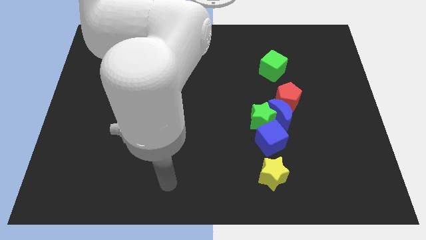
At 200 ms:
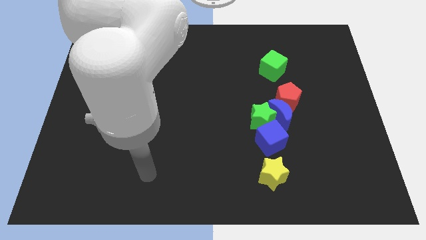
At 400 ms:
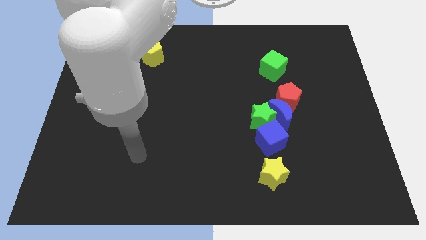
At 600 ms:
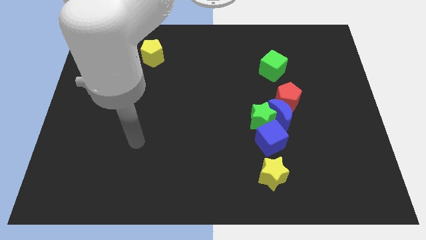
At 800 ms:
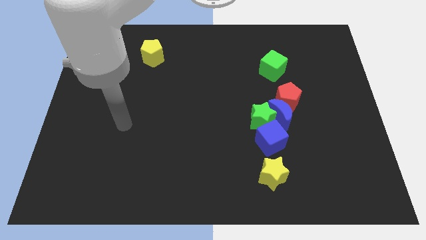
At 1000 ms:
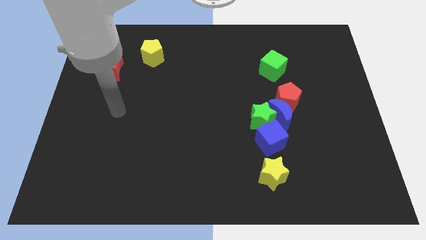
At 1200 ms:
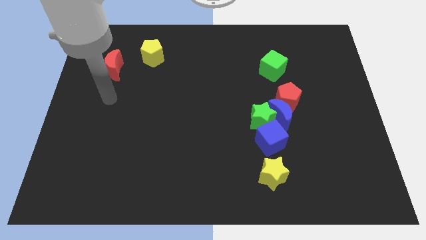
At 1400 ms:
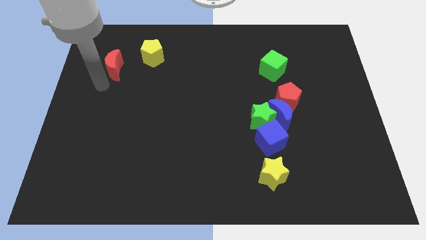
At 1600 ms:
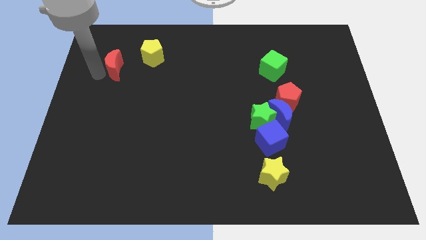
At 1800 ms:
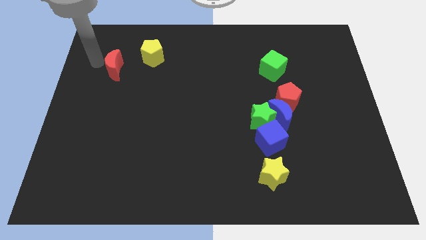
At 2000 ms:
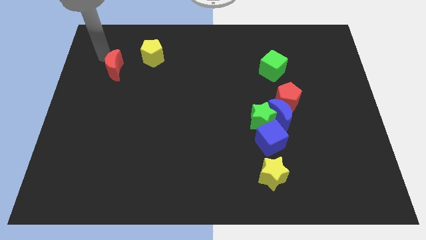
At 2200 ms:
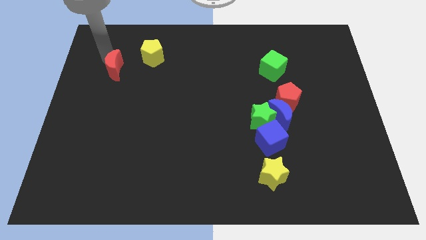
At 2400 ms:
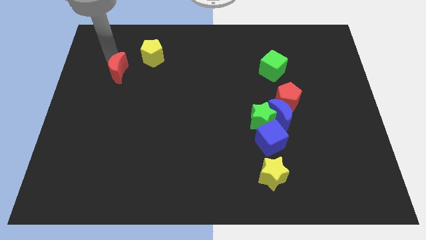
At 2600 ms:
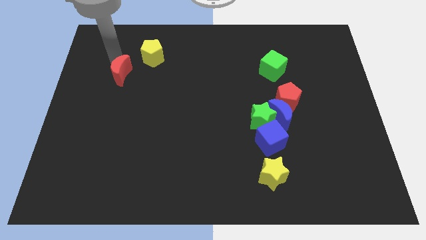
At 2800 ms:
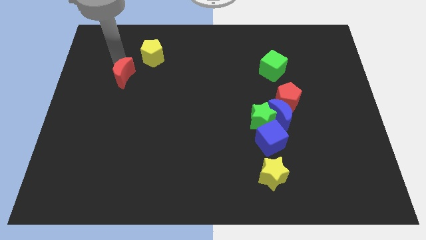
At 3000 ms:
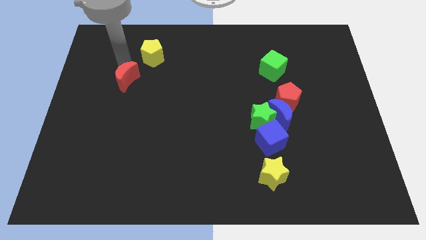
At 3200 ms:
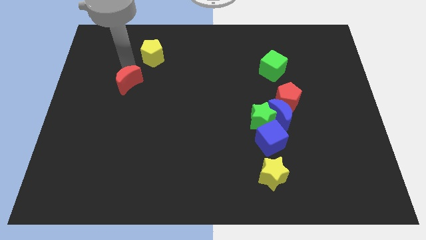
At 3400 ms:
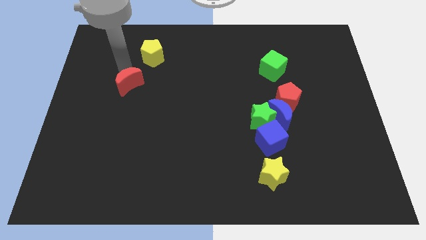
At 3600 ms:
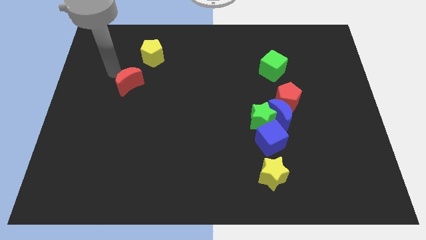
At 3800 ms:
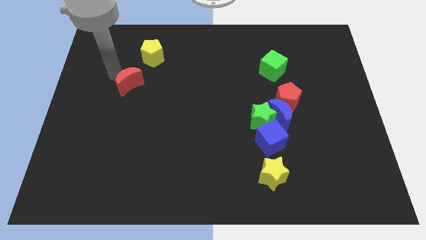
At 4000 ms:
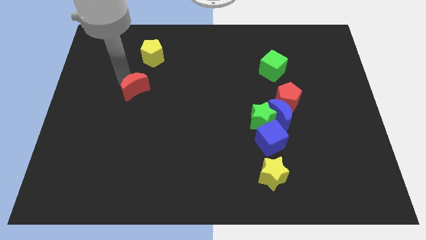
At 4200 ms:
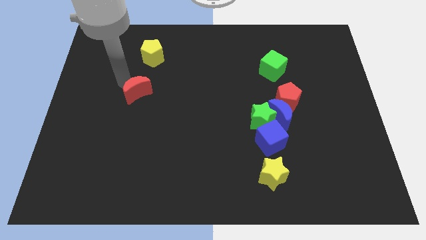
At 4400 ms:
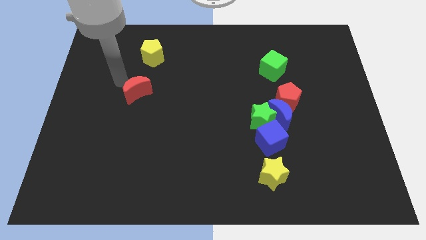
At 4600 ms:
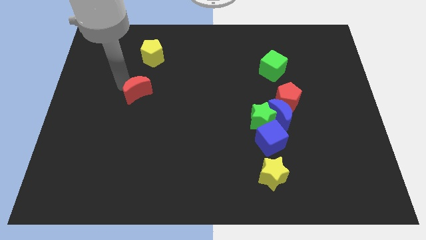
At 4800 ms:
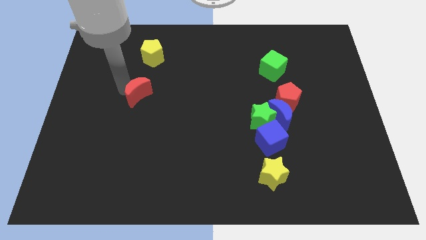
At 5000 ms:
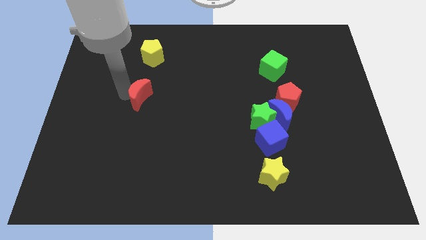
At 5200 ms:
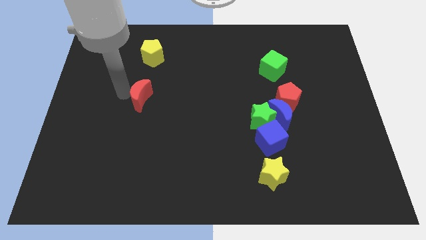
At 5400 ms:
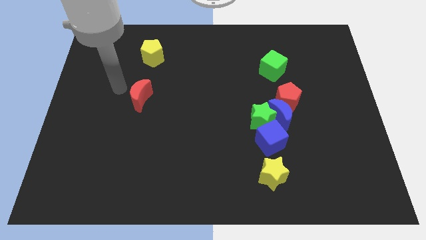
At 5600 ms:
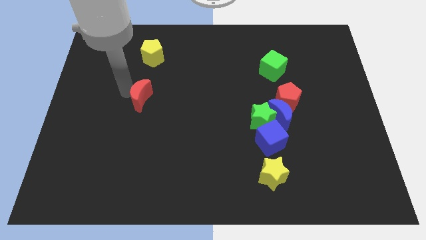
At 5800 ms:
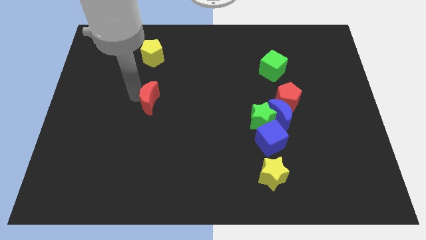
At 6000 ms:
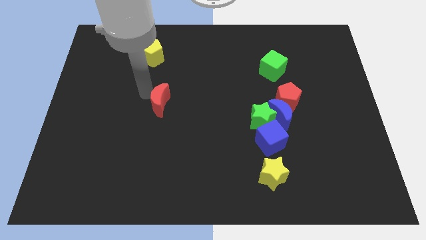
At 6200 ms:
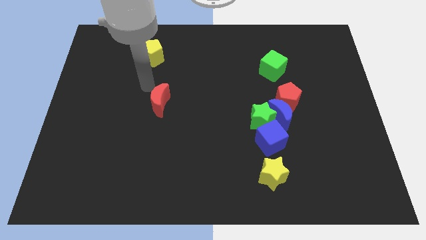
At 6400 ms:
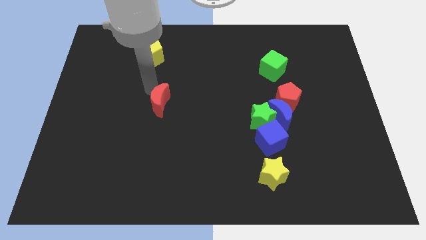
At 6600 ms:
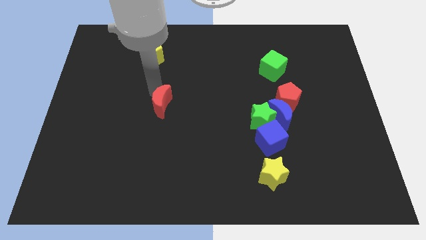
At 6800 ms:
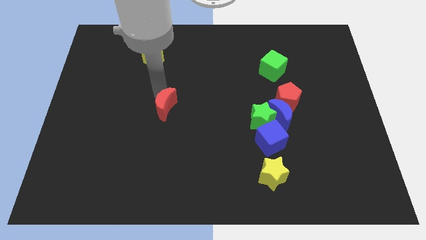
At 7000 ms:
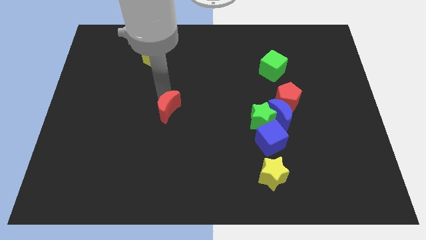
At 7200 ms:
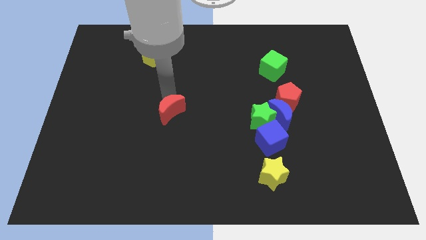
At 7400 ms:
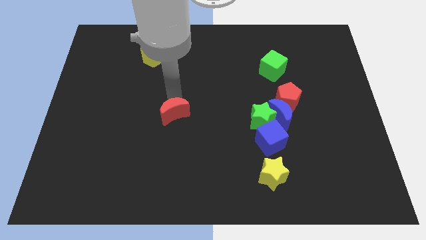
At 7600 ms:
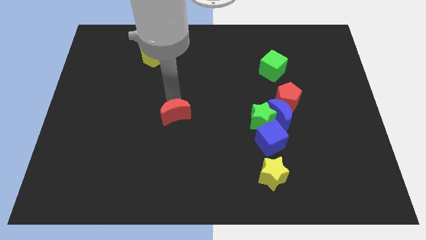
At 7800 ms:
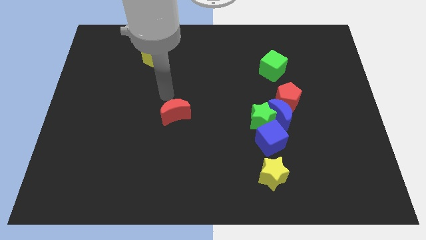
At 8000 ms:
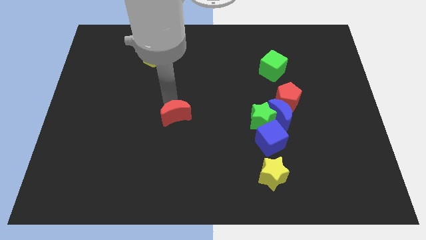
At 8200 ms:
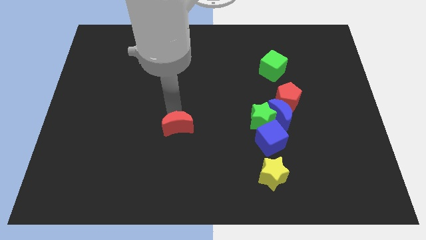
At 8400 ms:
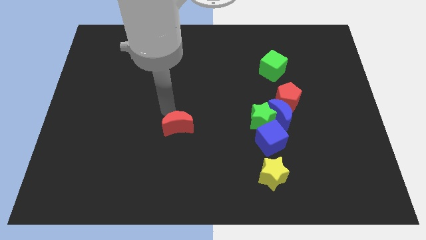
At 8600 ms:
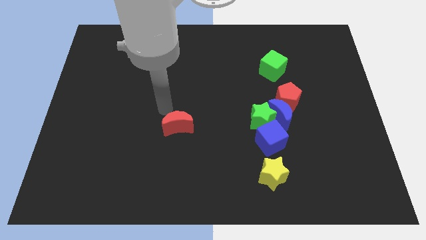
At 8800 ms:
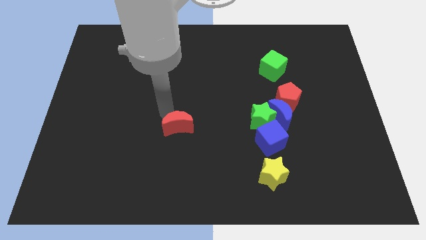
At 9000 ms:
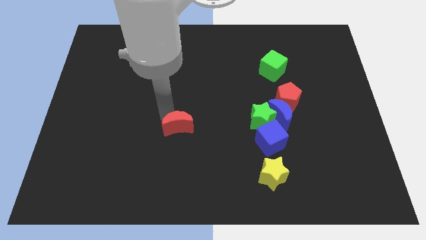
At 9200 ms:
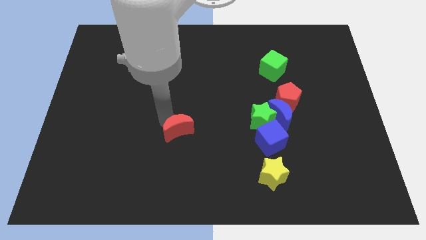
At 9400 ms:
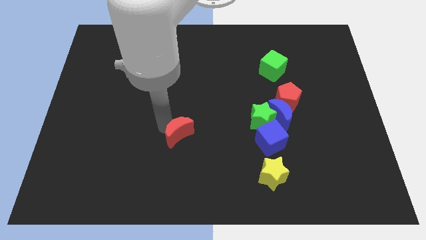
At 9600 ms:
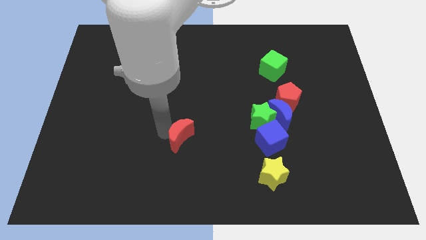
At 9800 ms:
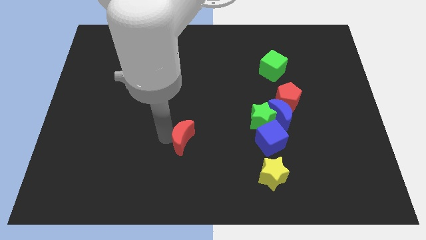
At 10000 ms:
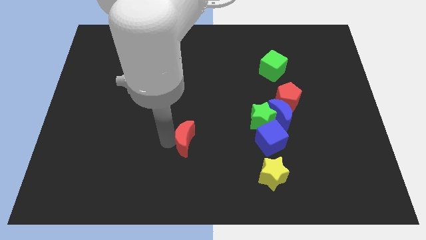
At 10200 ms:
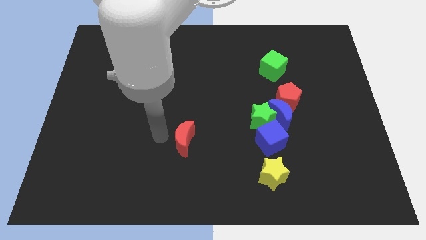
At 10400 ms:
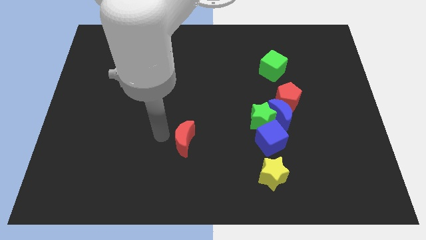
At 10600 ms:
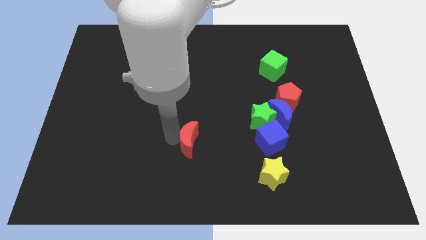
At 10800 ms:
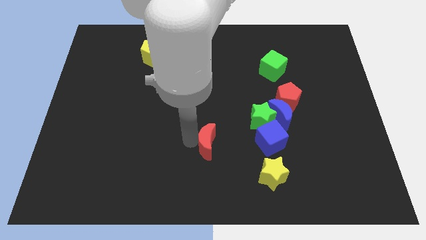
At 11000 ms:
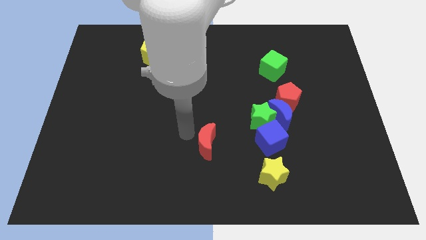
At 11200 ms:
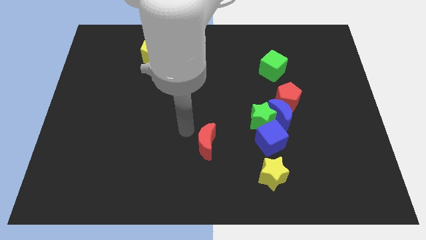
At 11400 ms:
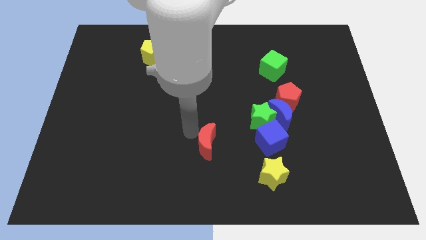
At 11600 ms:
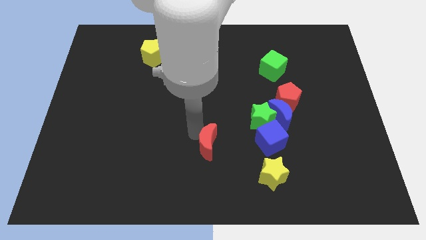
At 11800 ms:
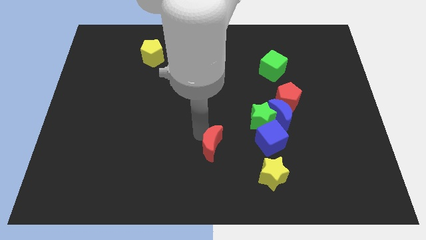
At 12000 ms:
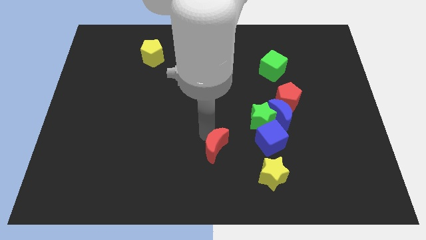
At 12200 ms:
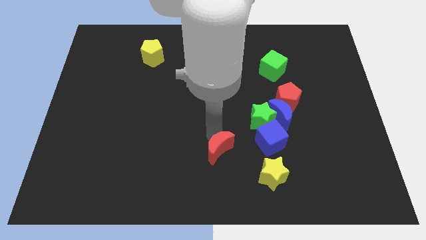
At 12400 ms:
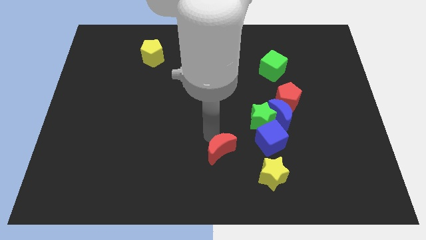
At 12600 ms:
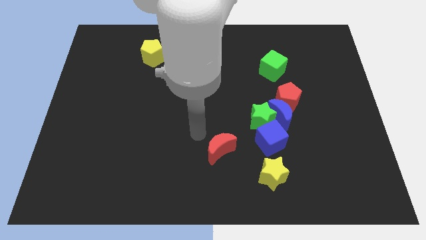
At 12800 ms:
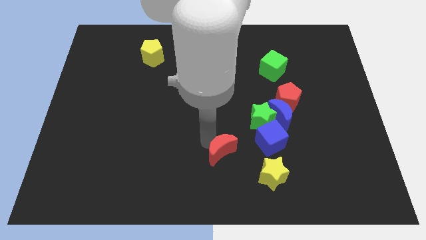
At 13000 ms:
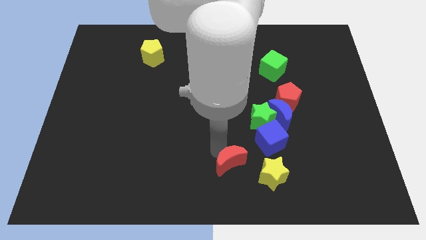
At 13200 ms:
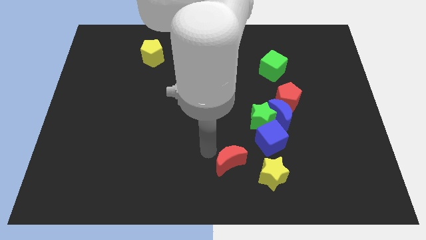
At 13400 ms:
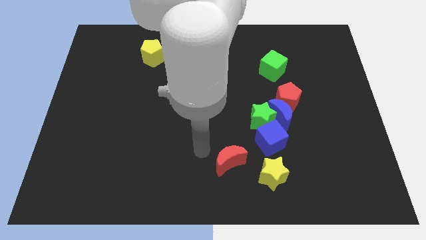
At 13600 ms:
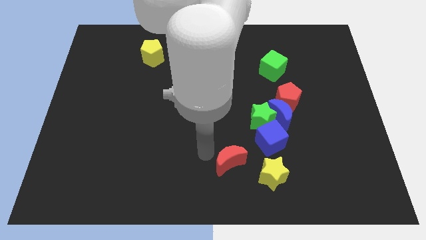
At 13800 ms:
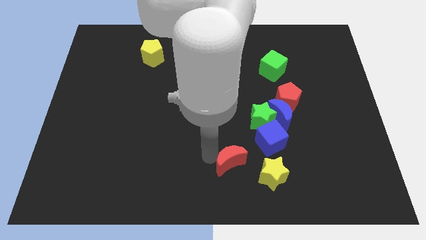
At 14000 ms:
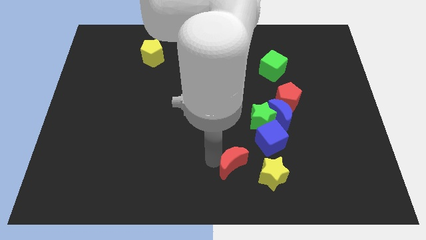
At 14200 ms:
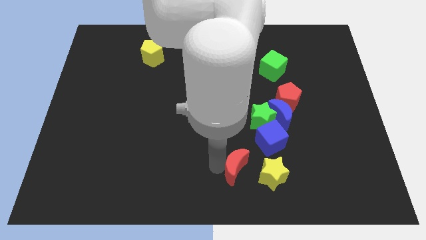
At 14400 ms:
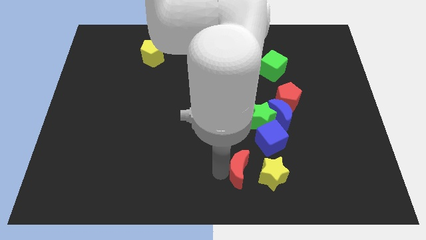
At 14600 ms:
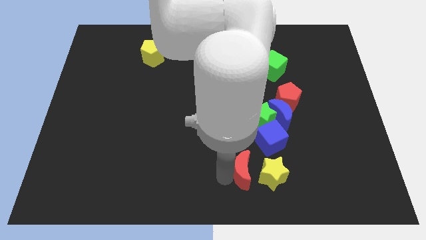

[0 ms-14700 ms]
put the red moon towards the yellow star
